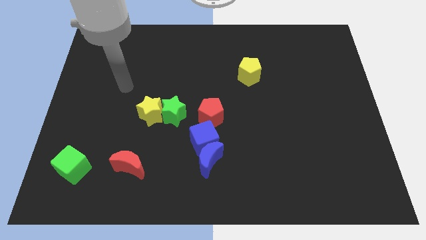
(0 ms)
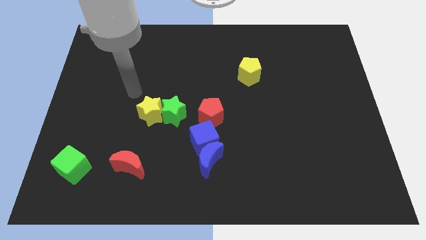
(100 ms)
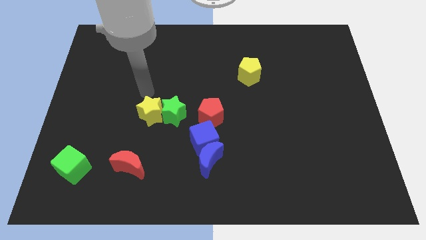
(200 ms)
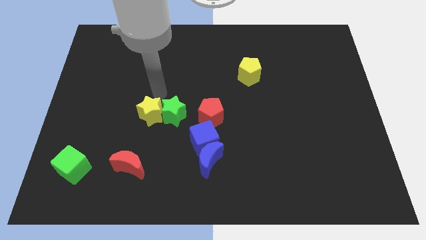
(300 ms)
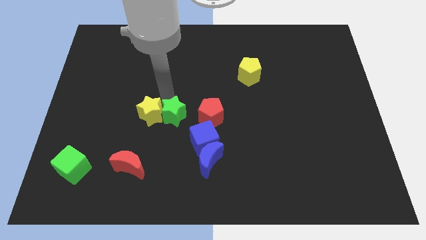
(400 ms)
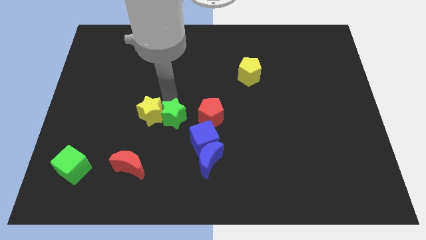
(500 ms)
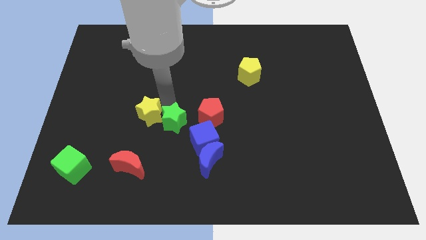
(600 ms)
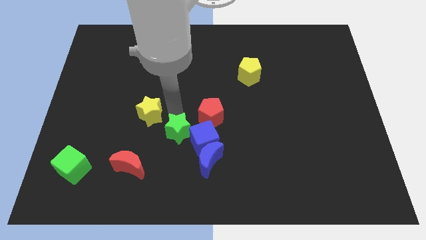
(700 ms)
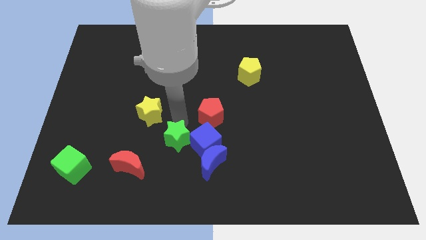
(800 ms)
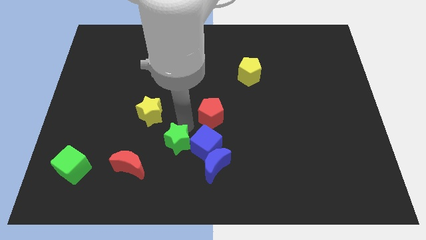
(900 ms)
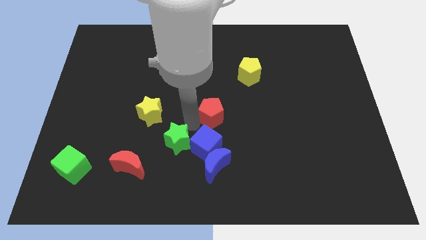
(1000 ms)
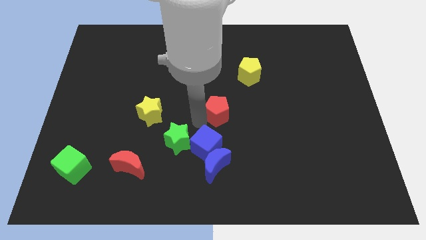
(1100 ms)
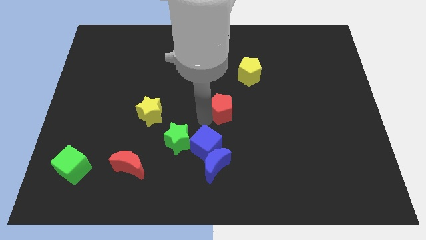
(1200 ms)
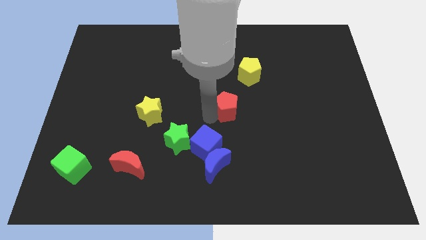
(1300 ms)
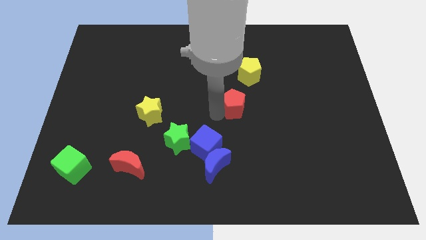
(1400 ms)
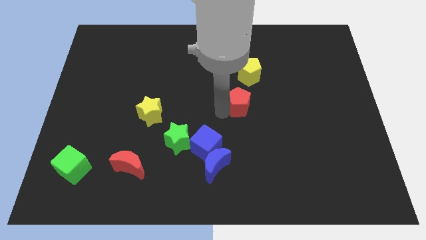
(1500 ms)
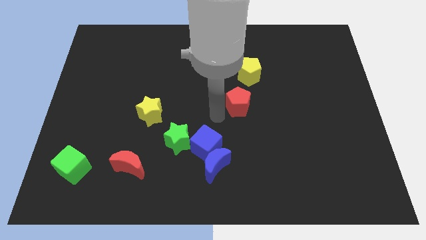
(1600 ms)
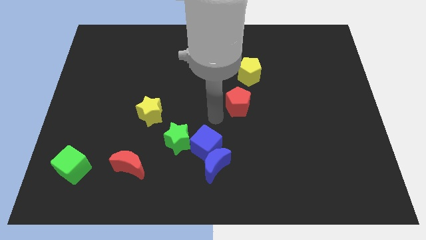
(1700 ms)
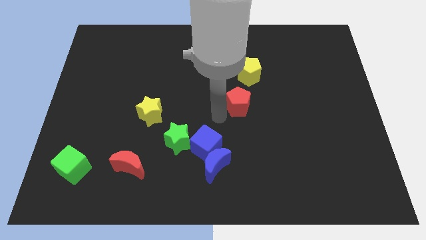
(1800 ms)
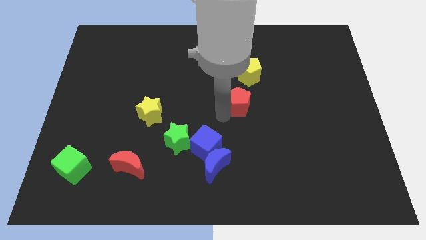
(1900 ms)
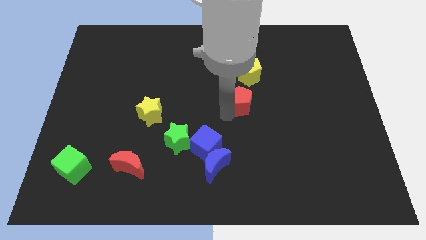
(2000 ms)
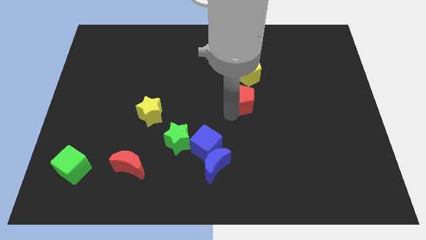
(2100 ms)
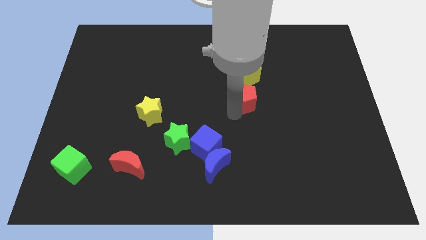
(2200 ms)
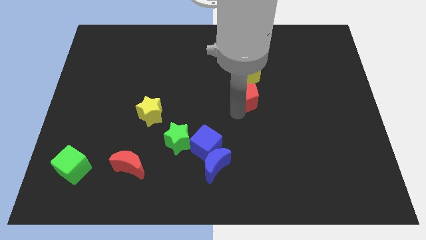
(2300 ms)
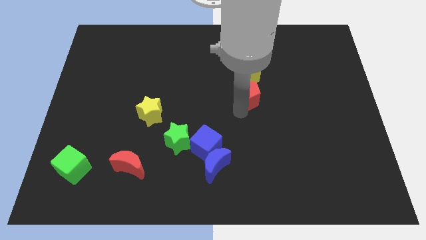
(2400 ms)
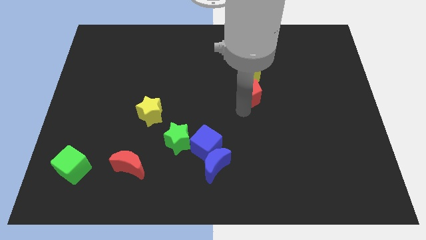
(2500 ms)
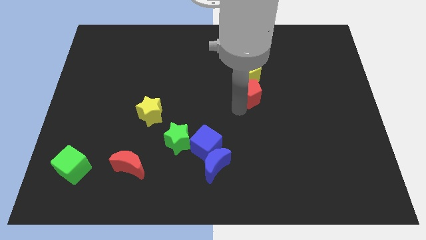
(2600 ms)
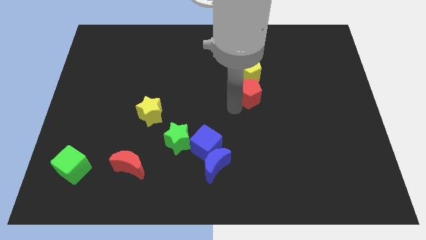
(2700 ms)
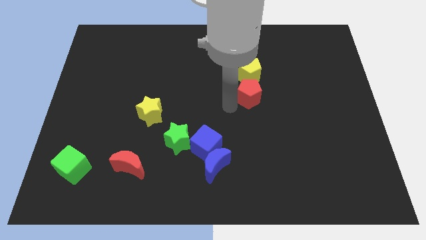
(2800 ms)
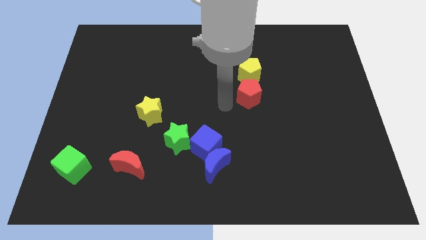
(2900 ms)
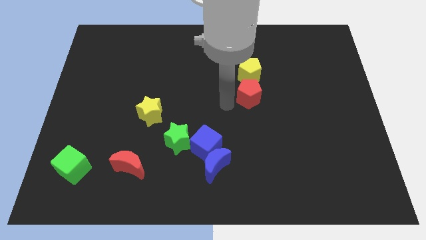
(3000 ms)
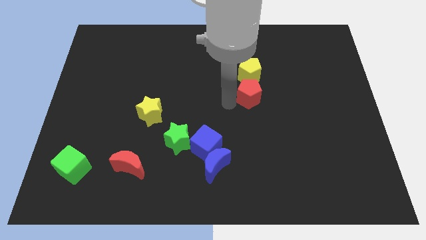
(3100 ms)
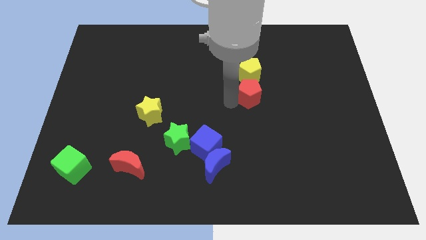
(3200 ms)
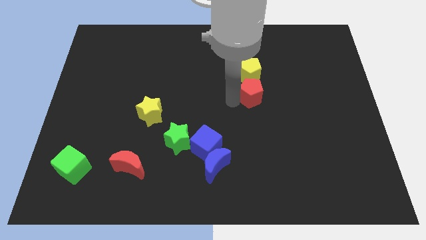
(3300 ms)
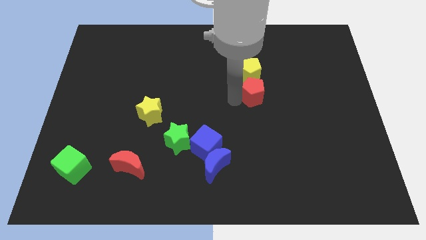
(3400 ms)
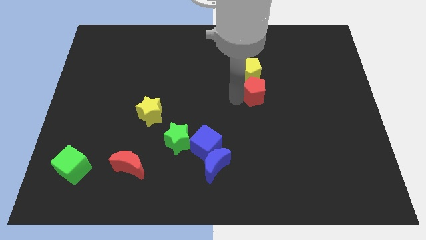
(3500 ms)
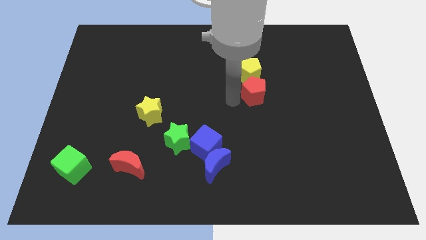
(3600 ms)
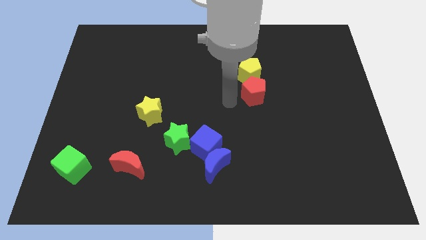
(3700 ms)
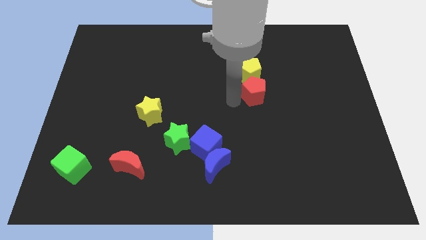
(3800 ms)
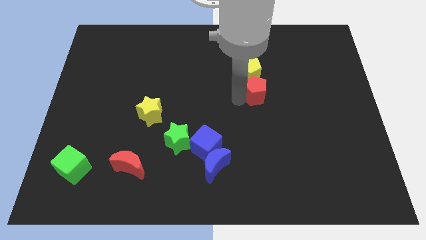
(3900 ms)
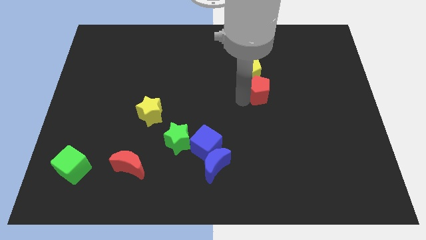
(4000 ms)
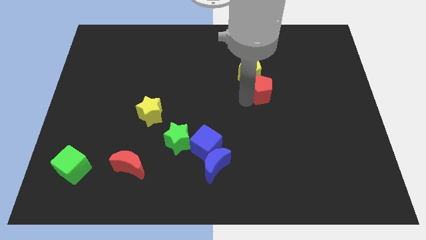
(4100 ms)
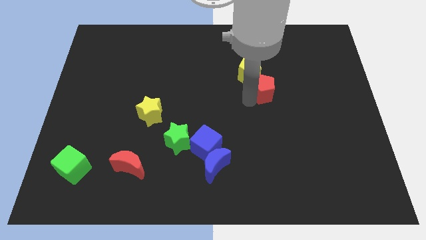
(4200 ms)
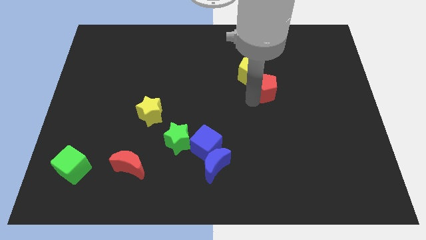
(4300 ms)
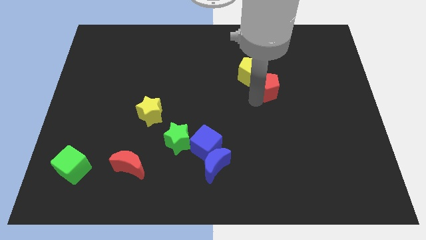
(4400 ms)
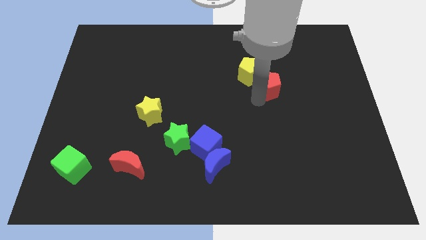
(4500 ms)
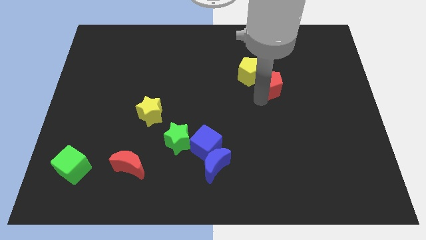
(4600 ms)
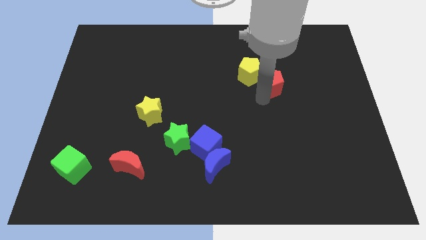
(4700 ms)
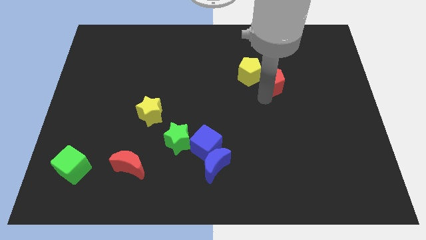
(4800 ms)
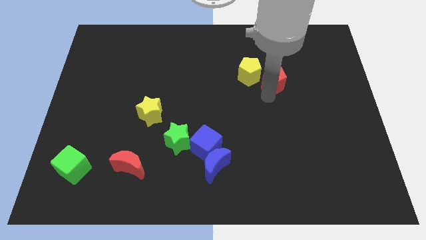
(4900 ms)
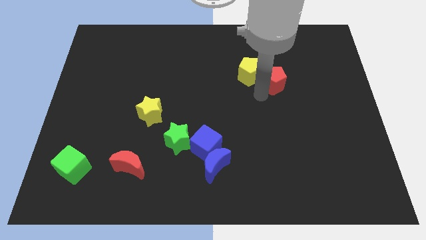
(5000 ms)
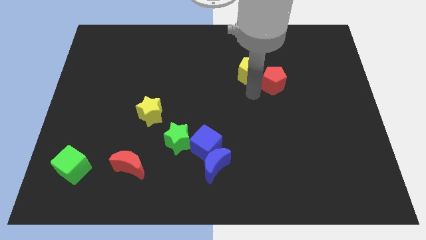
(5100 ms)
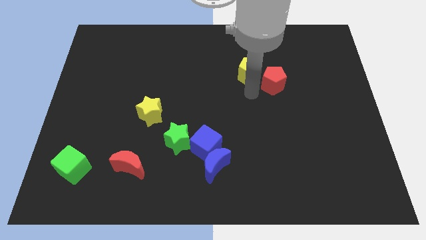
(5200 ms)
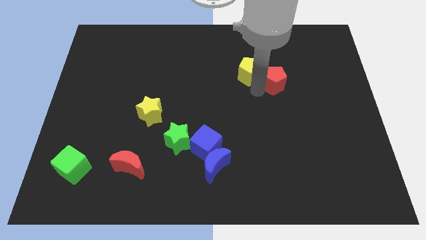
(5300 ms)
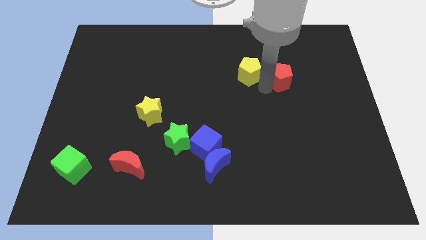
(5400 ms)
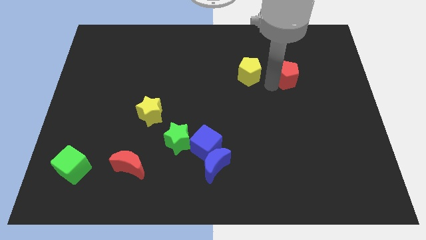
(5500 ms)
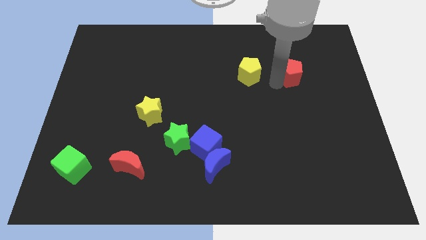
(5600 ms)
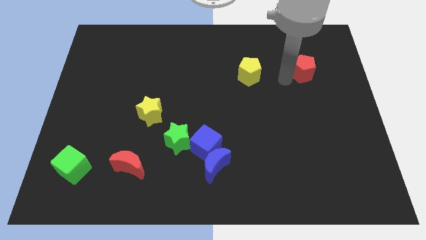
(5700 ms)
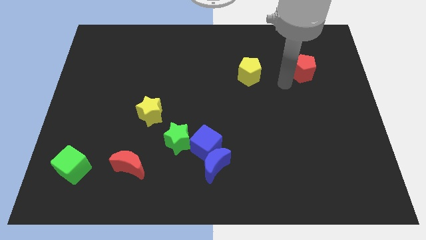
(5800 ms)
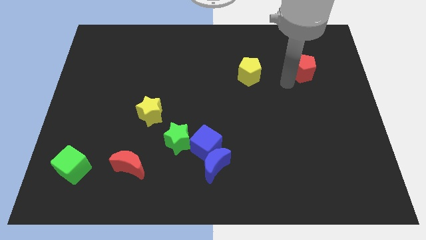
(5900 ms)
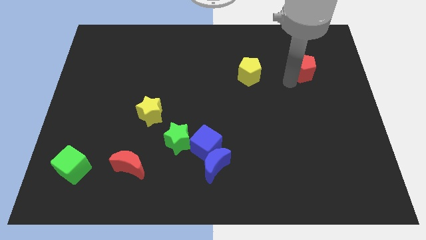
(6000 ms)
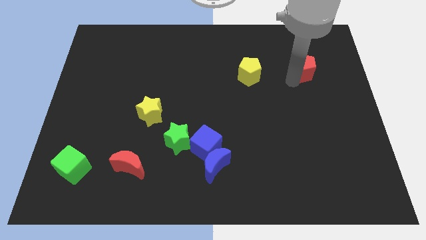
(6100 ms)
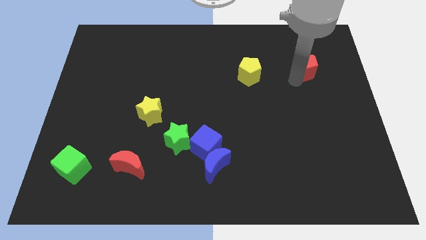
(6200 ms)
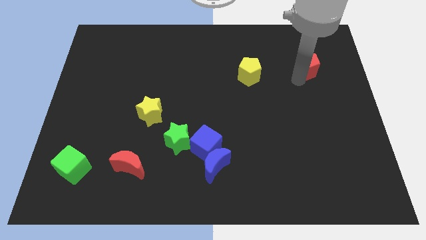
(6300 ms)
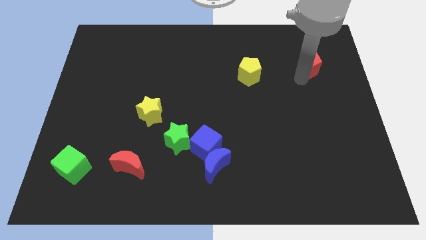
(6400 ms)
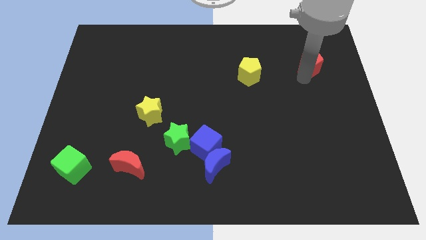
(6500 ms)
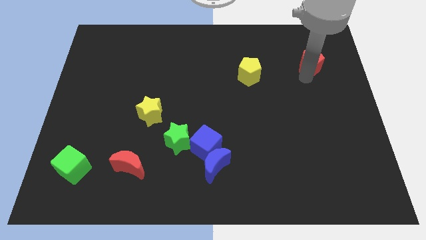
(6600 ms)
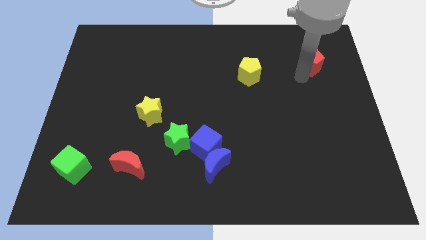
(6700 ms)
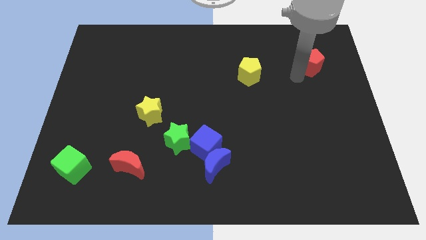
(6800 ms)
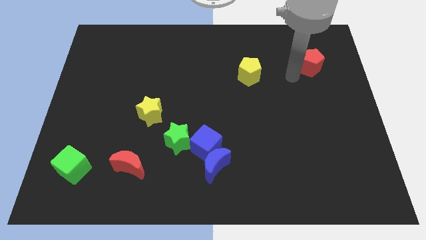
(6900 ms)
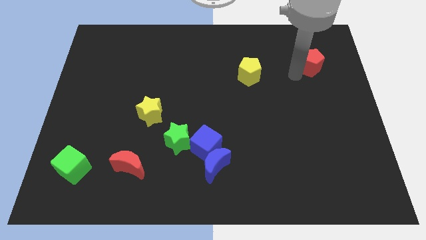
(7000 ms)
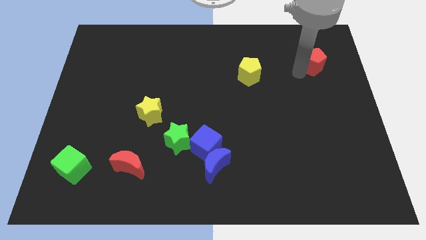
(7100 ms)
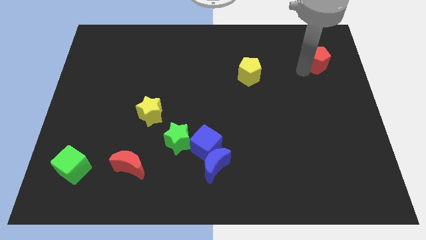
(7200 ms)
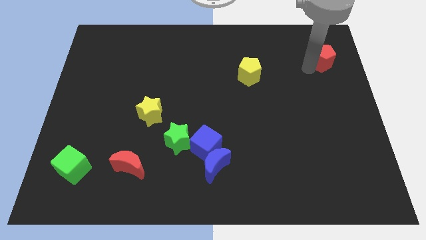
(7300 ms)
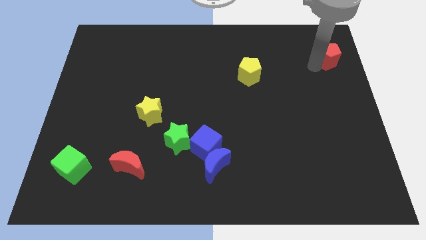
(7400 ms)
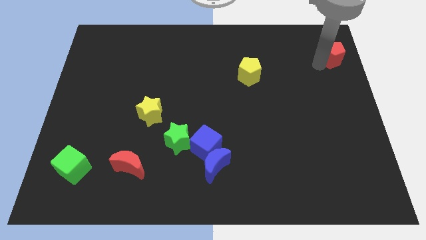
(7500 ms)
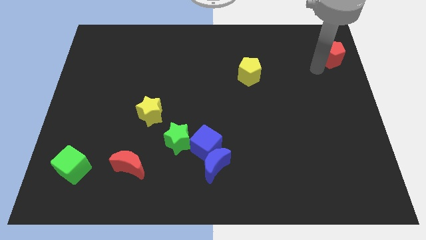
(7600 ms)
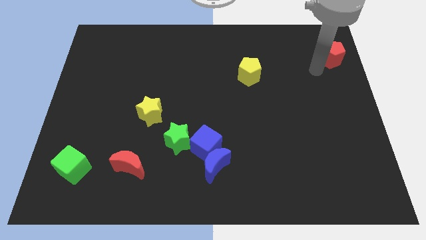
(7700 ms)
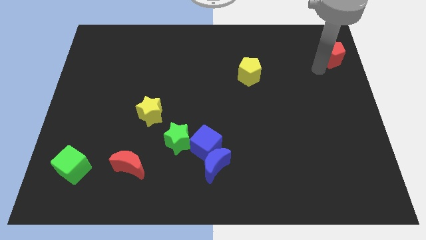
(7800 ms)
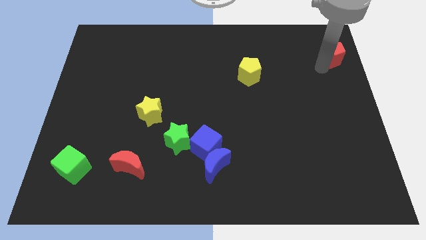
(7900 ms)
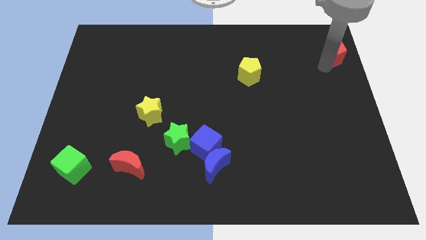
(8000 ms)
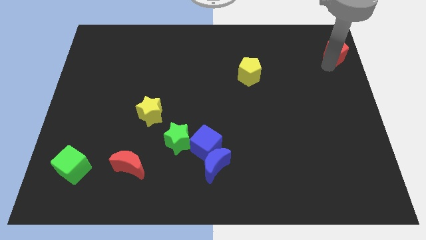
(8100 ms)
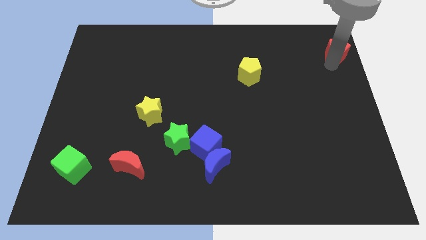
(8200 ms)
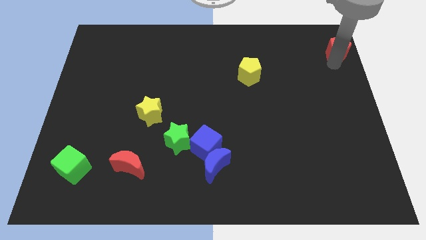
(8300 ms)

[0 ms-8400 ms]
put the red pentagon to the top right
